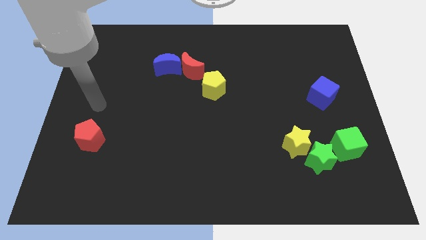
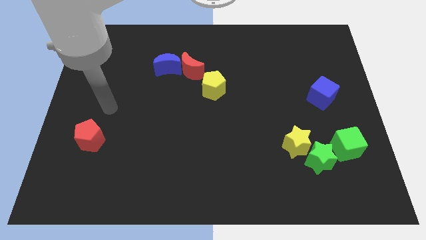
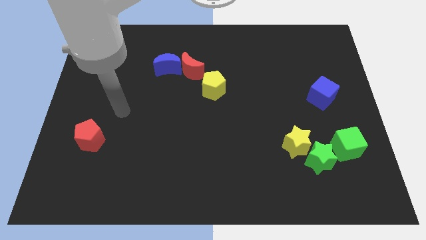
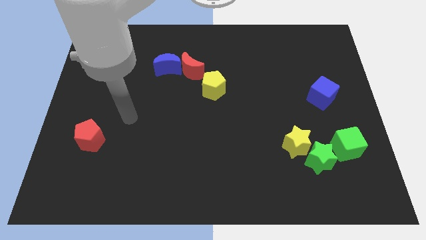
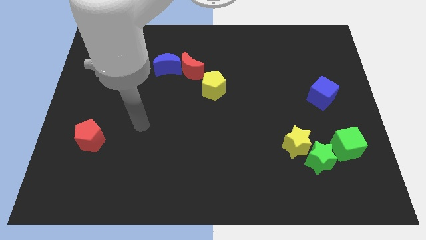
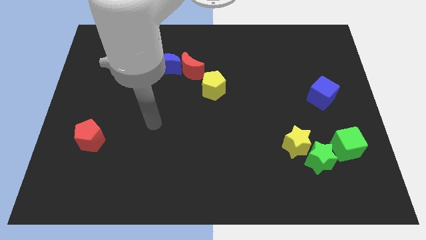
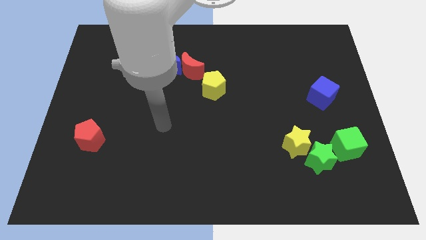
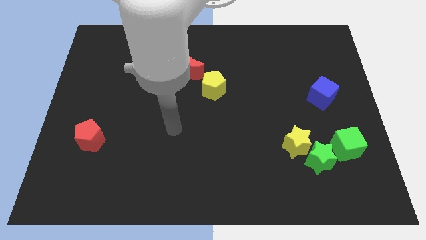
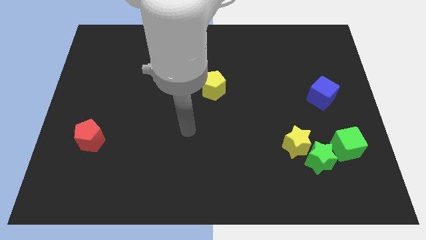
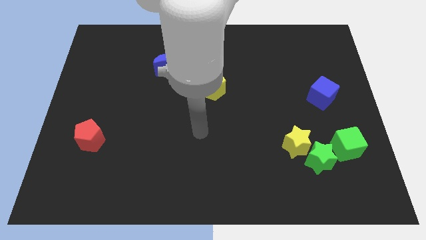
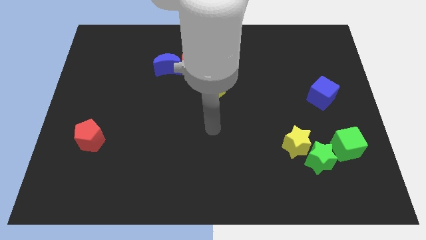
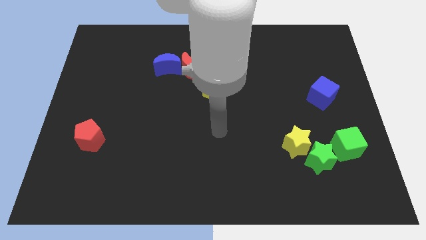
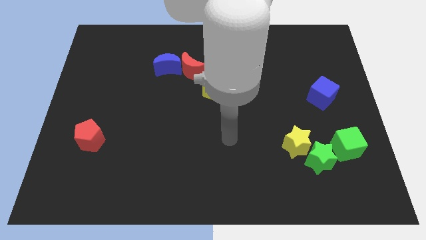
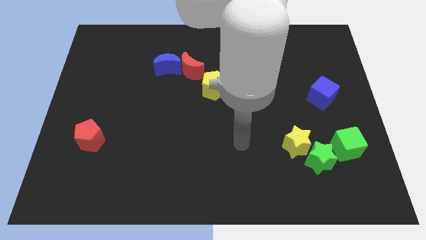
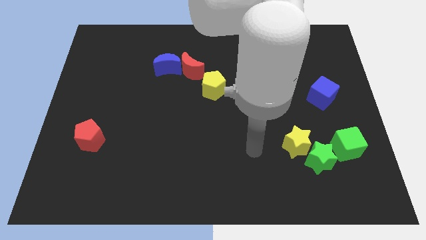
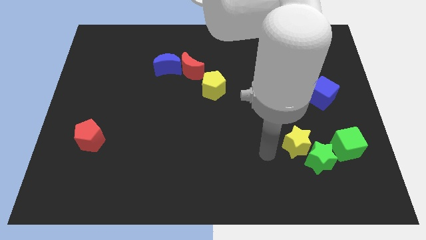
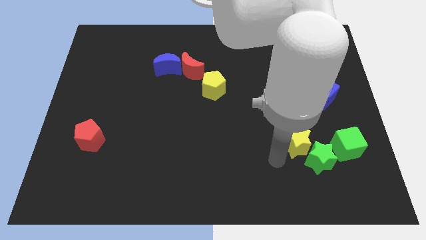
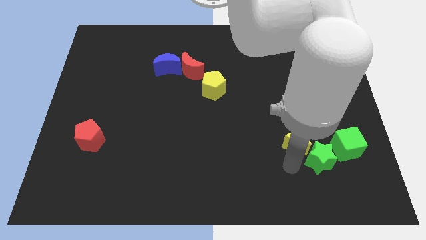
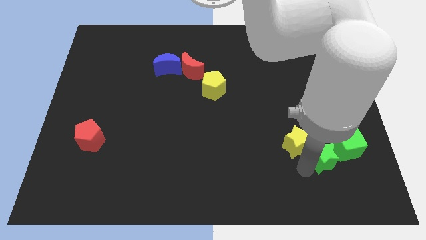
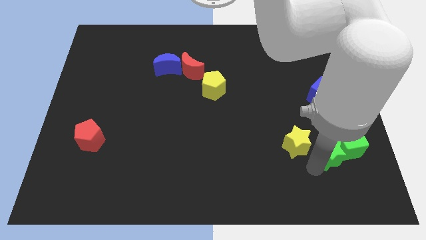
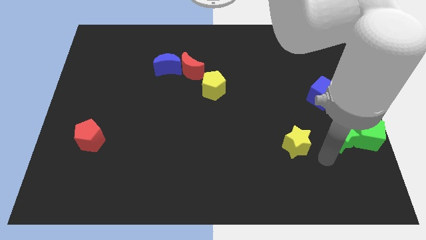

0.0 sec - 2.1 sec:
pull the yellow star apart from the green star

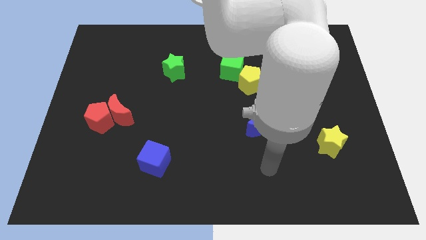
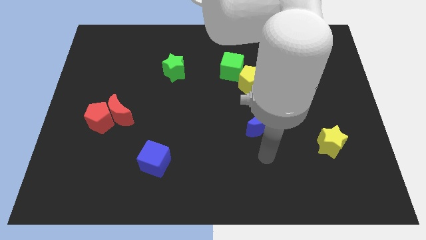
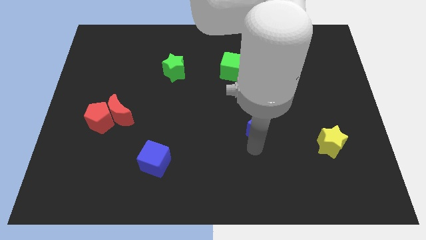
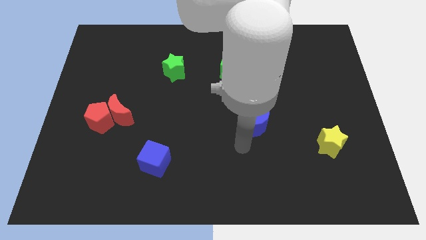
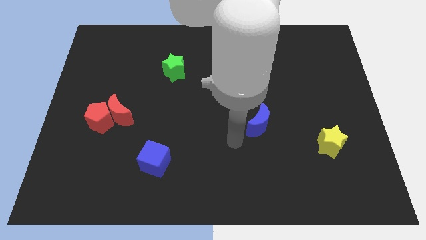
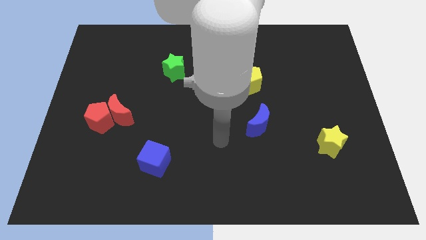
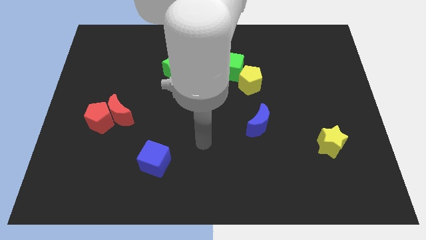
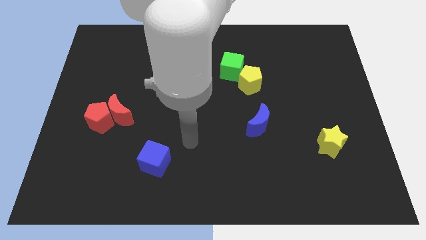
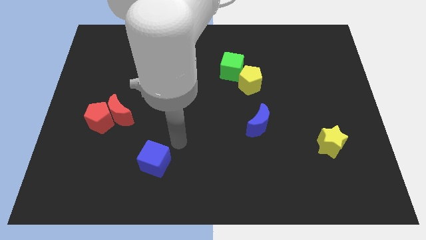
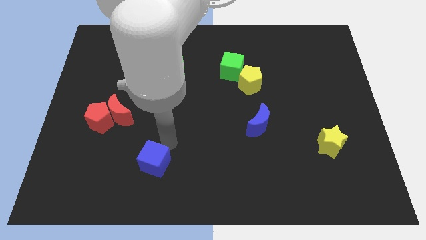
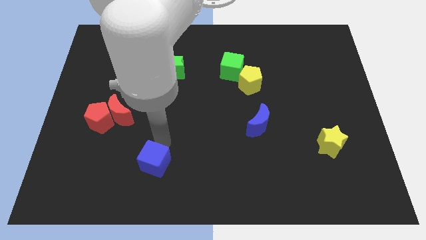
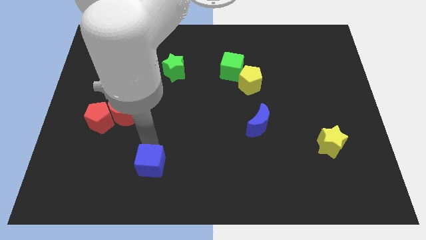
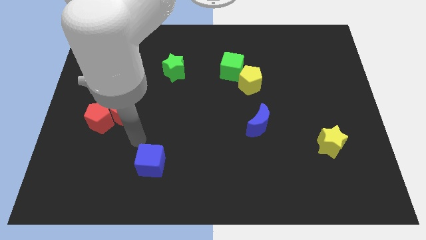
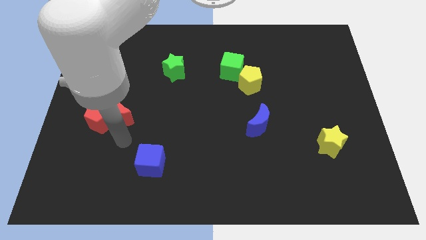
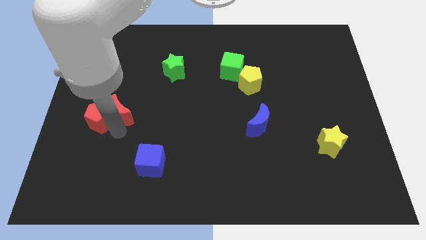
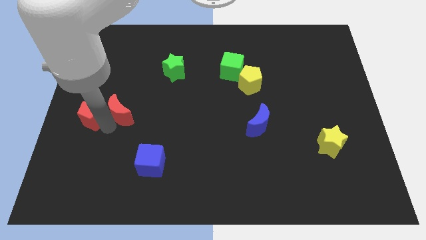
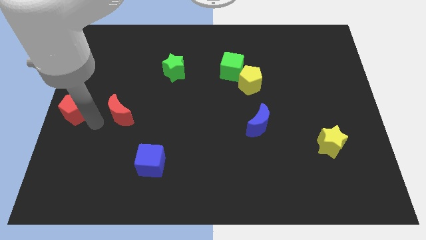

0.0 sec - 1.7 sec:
move the red moon away from the red pentagon

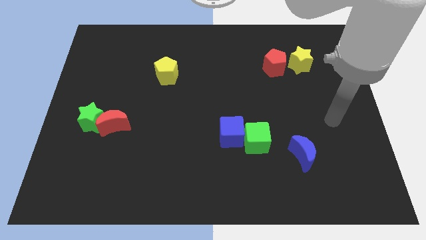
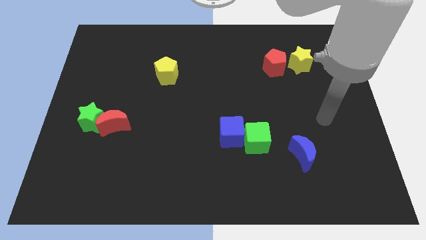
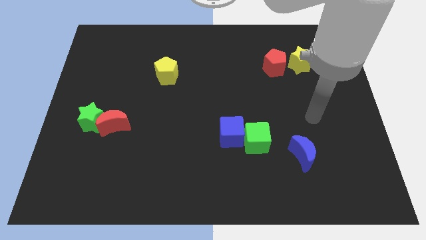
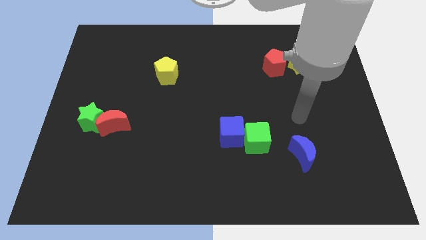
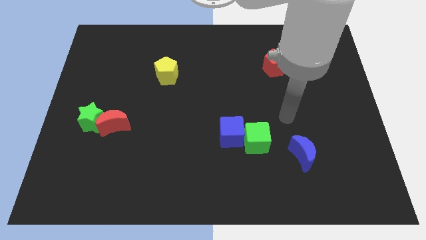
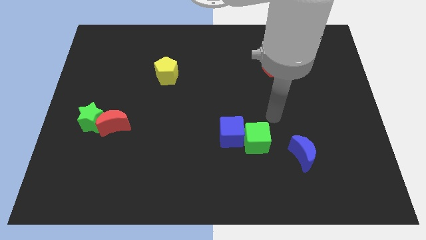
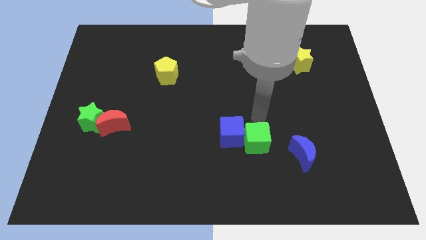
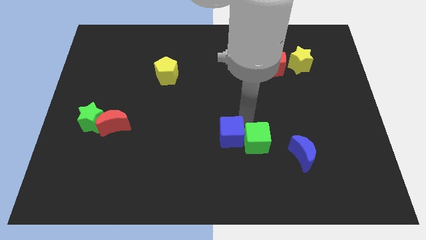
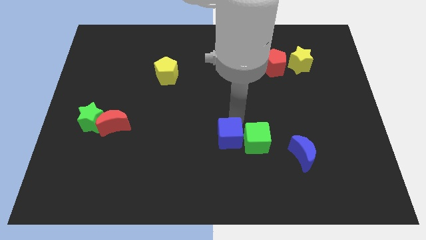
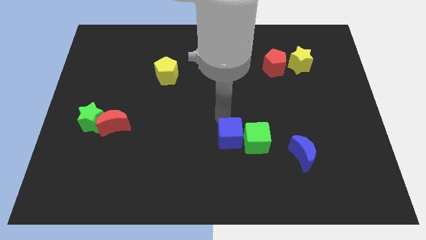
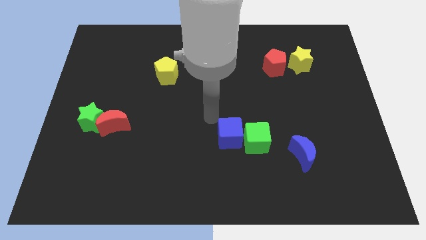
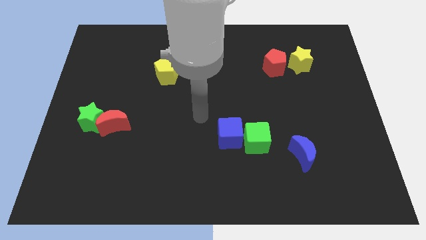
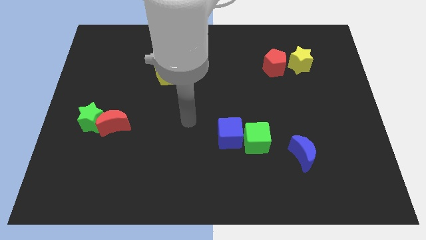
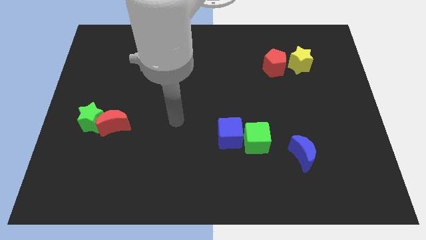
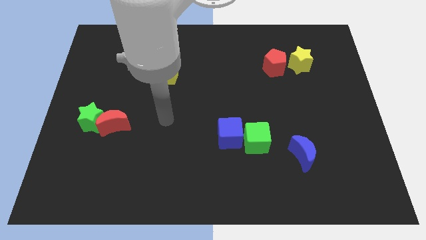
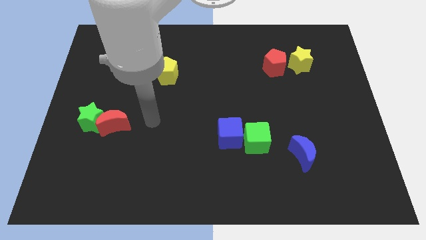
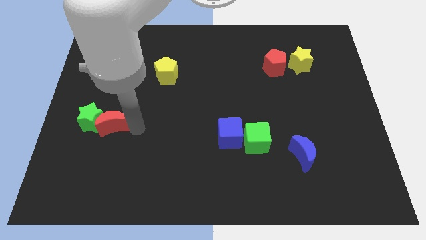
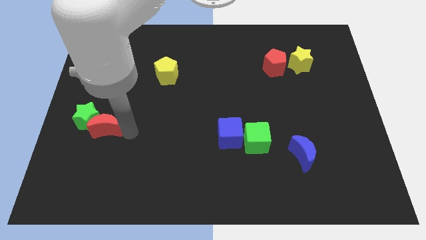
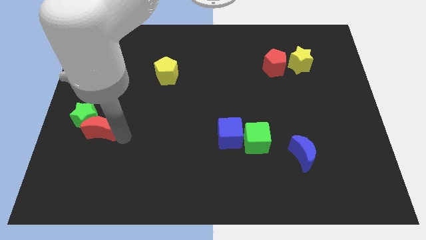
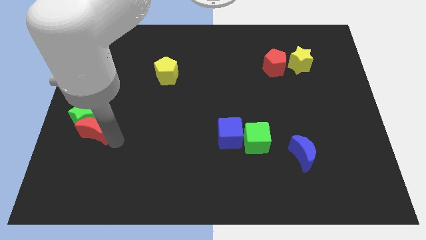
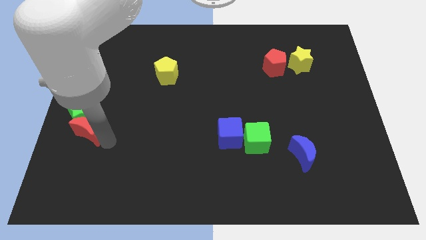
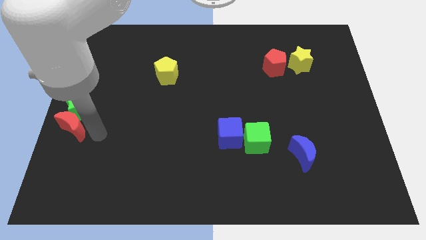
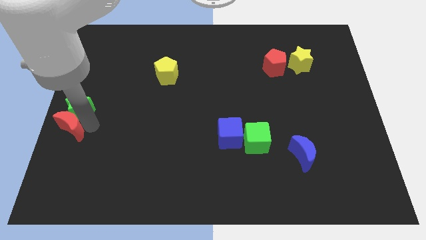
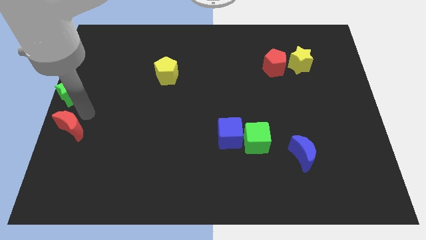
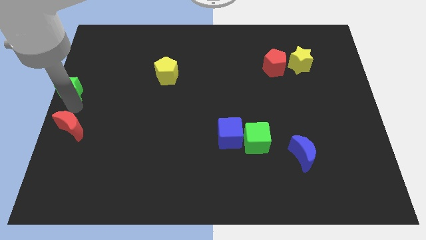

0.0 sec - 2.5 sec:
move the red moon away from the green star

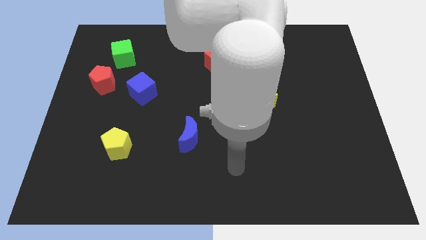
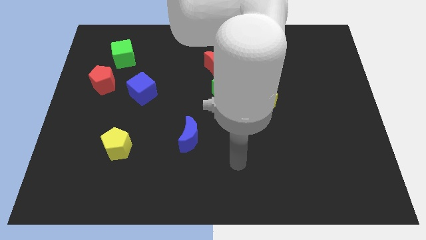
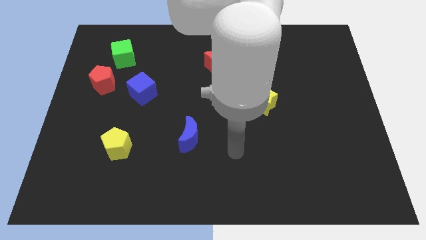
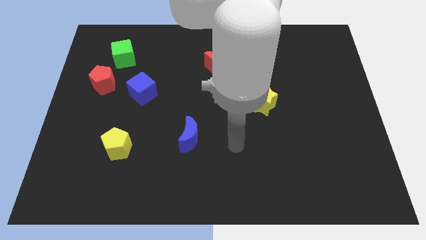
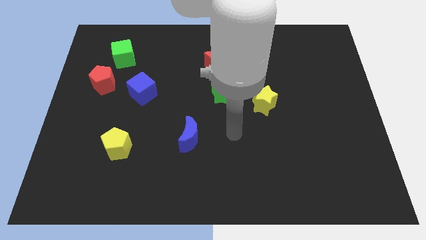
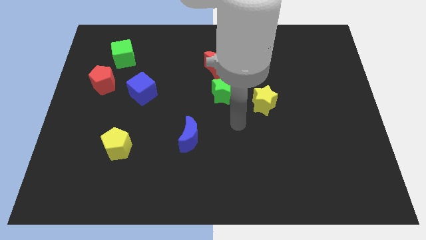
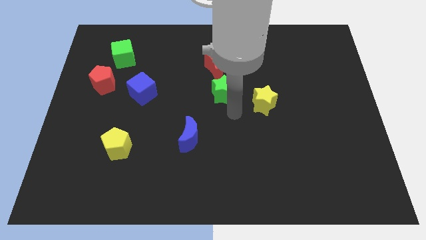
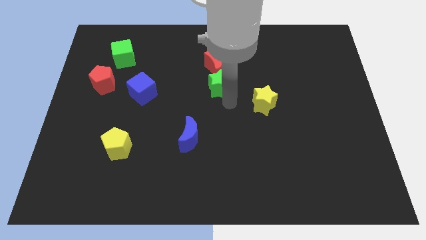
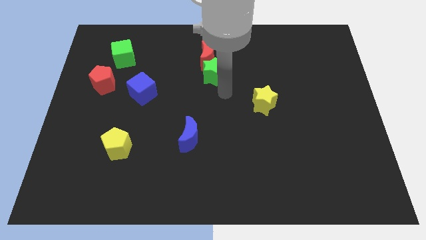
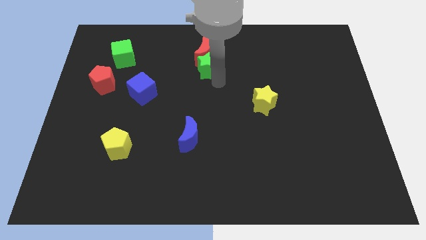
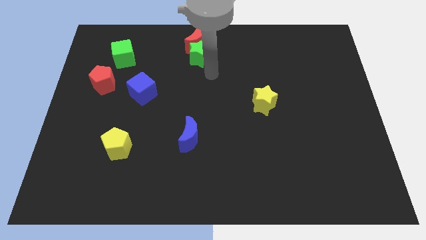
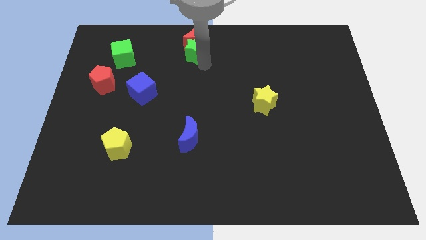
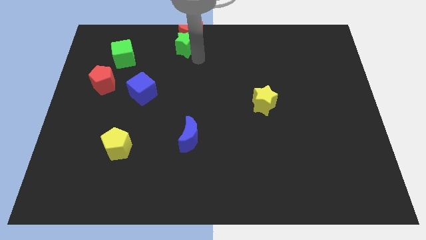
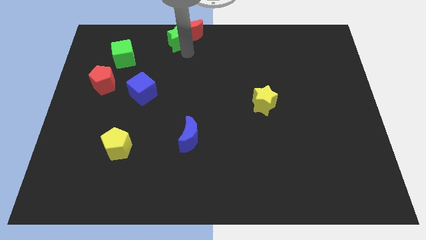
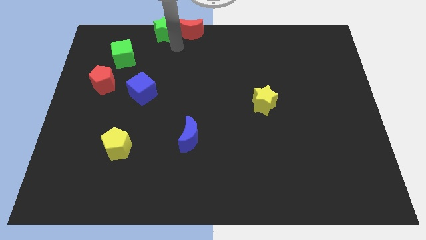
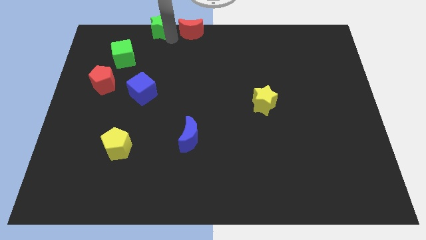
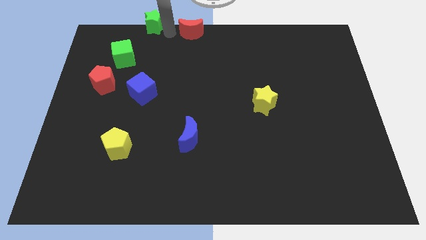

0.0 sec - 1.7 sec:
separate the red moon from the green star

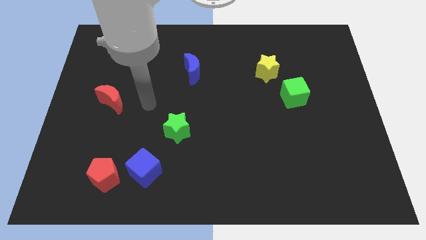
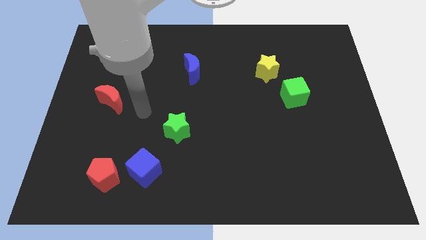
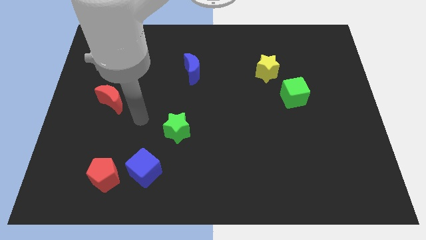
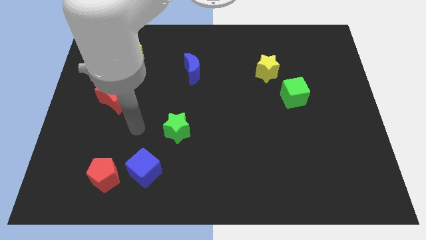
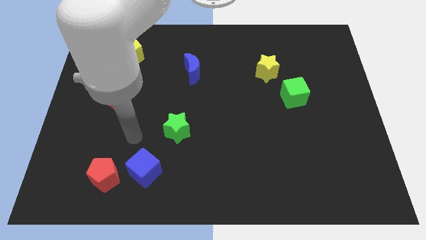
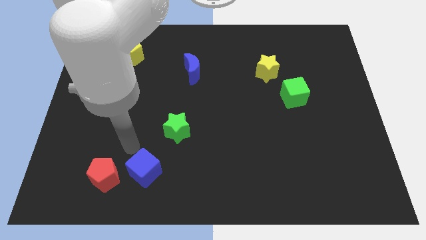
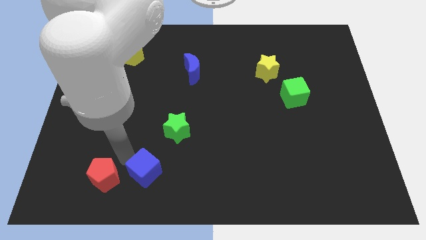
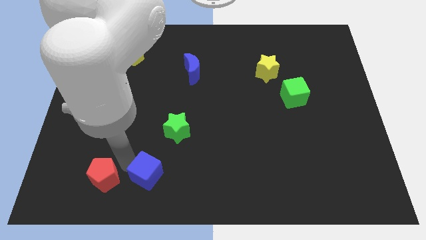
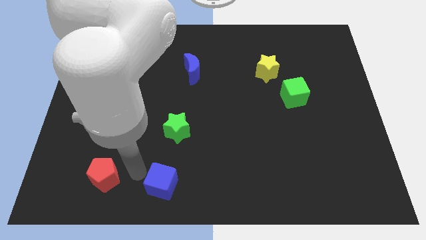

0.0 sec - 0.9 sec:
pull the red pentagon apart from the blue cube

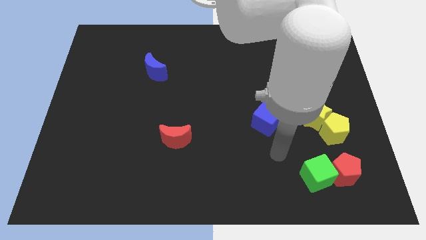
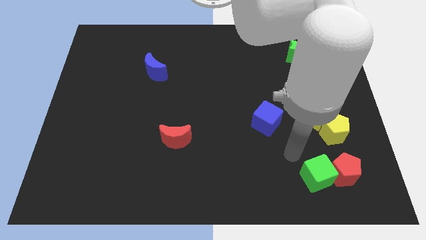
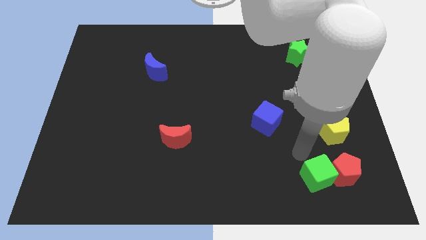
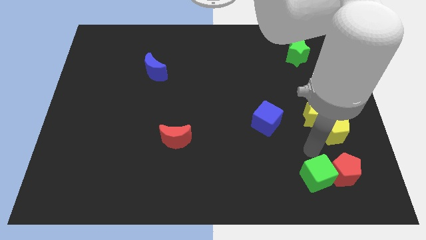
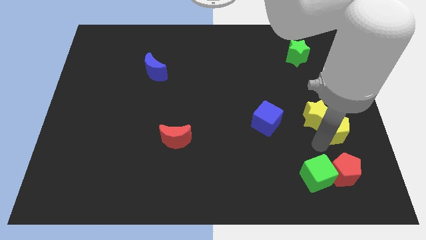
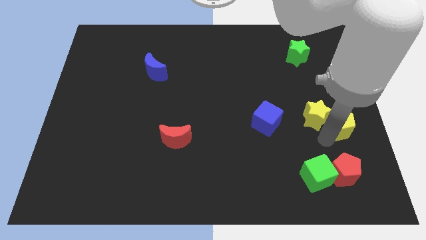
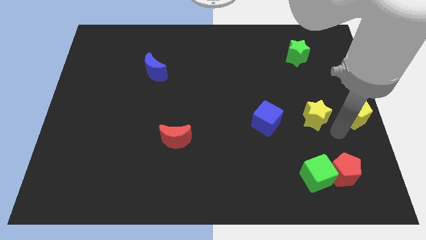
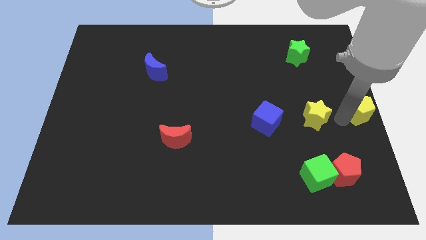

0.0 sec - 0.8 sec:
move the yellow star away from the yellow pentagon
